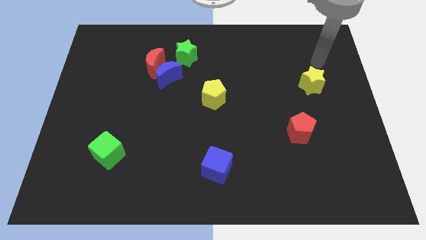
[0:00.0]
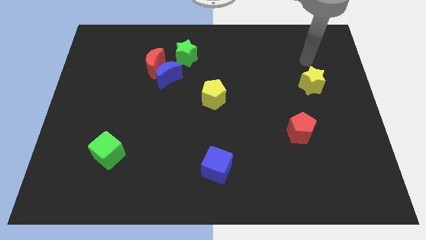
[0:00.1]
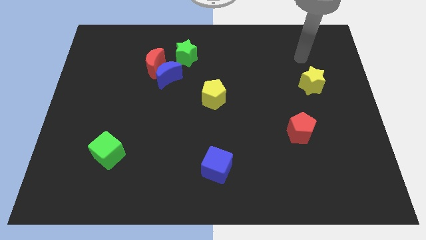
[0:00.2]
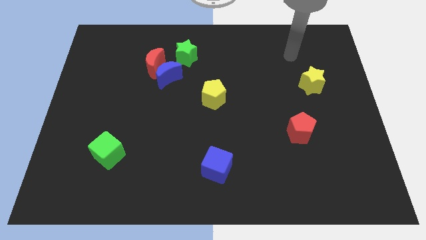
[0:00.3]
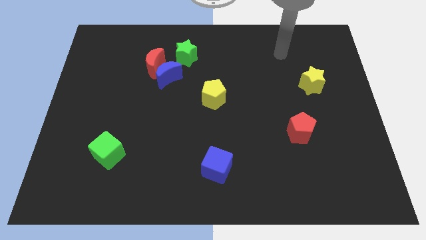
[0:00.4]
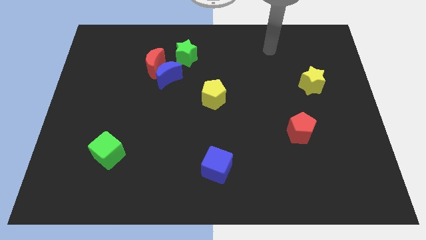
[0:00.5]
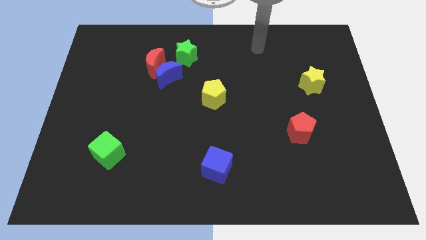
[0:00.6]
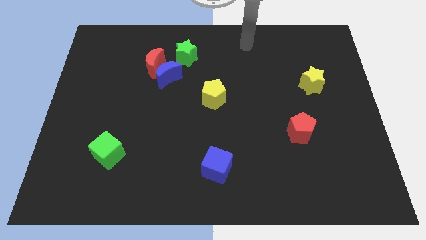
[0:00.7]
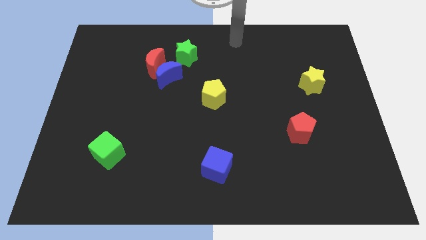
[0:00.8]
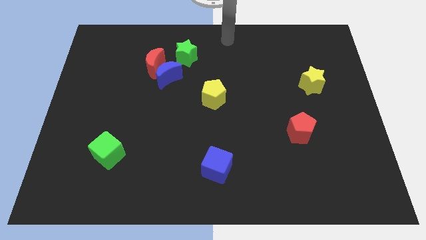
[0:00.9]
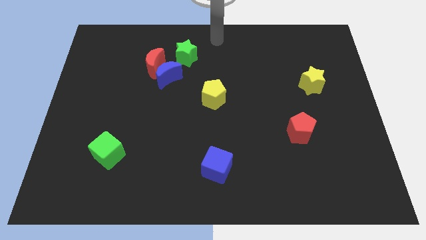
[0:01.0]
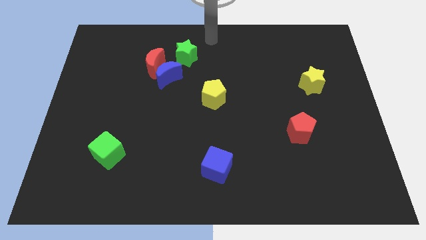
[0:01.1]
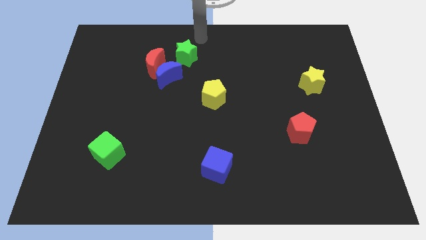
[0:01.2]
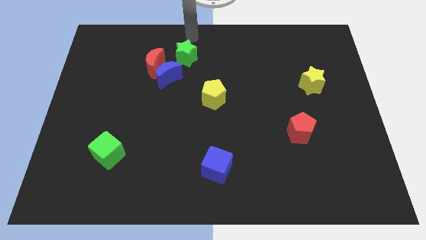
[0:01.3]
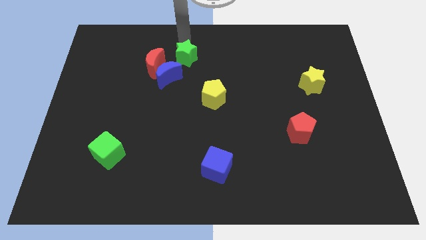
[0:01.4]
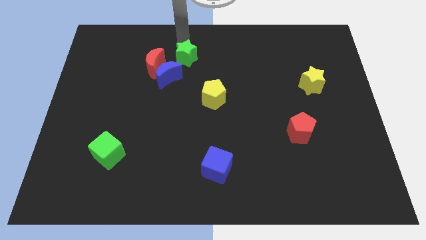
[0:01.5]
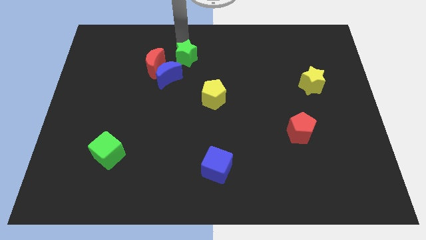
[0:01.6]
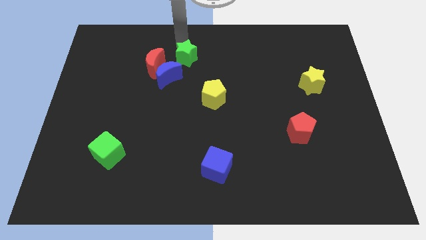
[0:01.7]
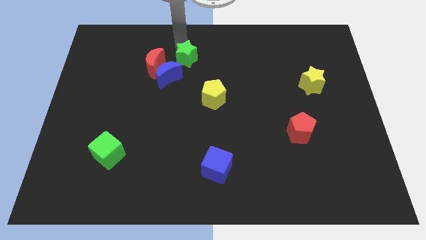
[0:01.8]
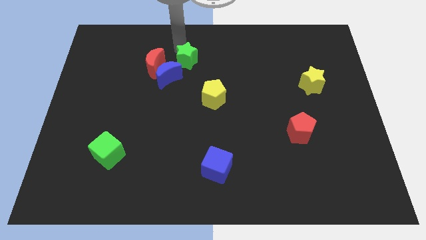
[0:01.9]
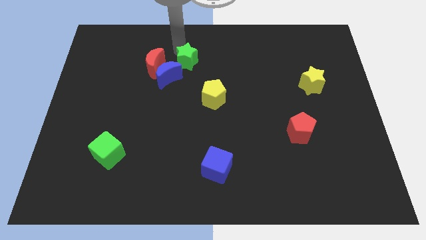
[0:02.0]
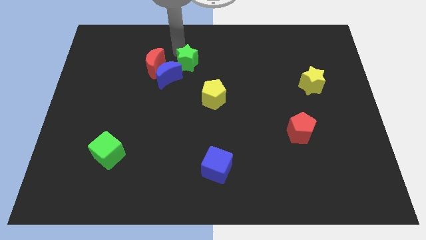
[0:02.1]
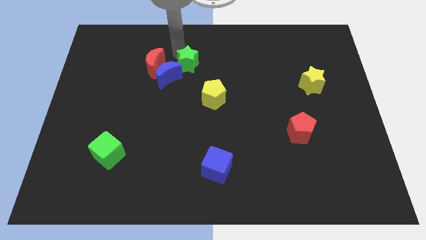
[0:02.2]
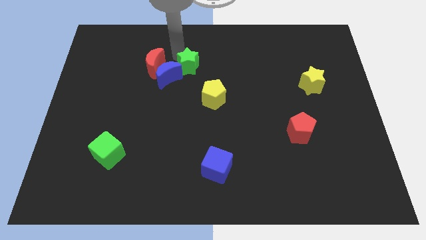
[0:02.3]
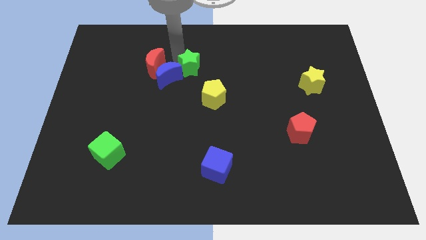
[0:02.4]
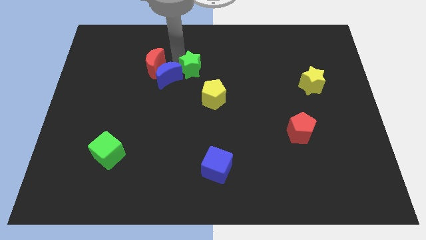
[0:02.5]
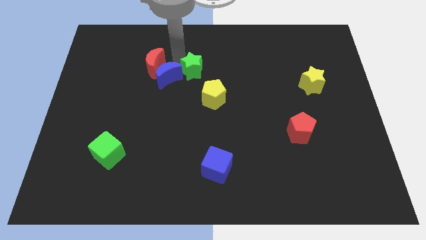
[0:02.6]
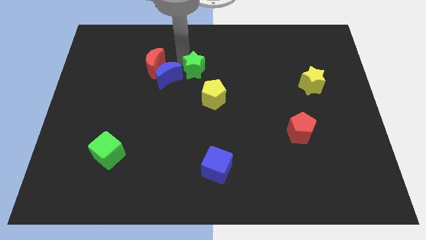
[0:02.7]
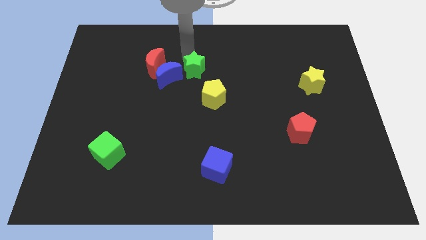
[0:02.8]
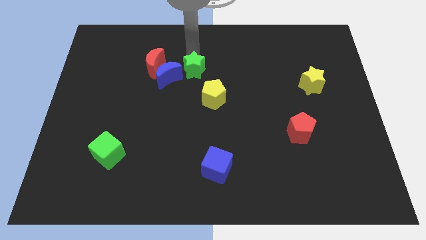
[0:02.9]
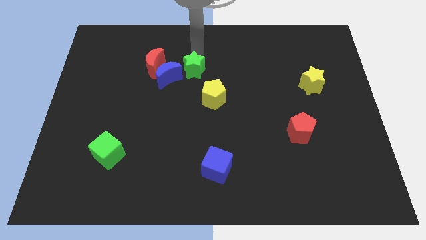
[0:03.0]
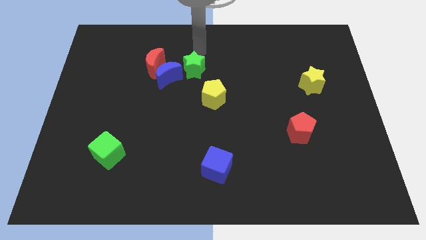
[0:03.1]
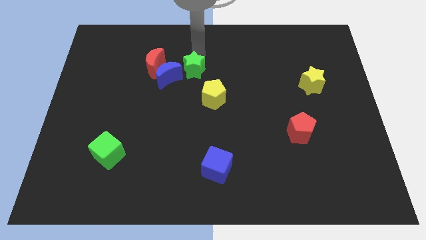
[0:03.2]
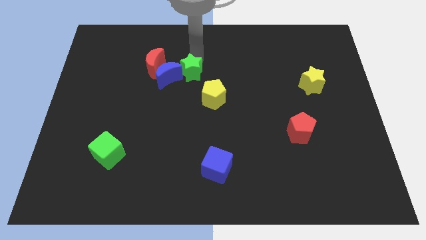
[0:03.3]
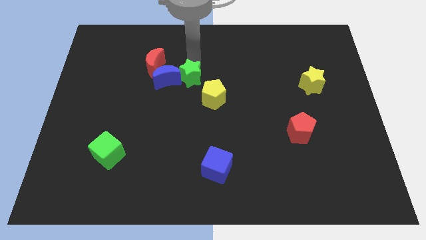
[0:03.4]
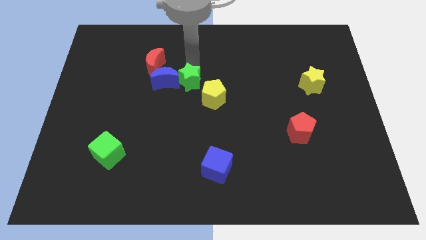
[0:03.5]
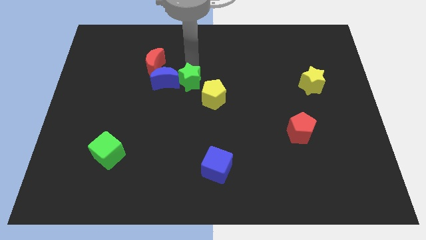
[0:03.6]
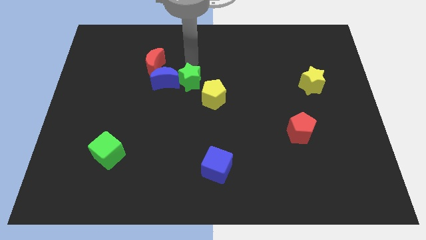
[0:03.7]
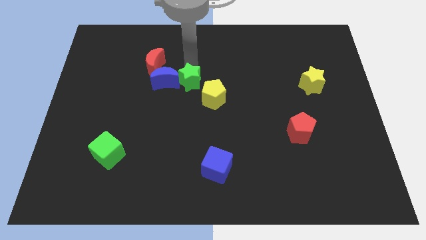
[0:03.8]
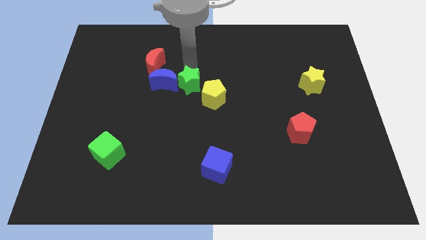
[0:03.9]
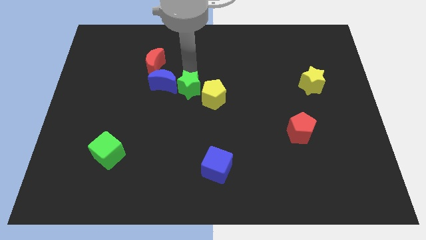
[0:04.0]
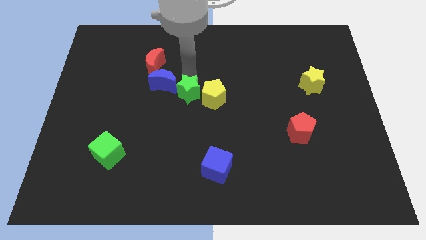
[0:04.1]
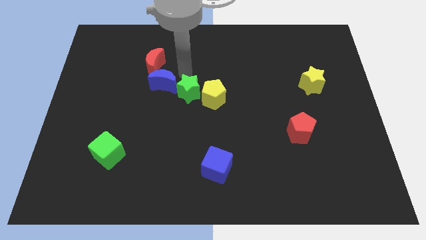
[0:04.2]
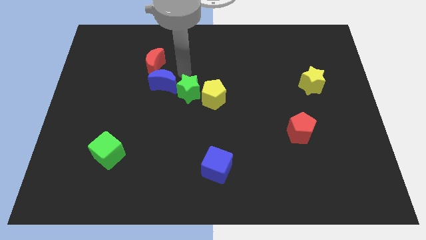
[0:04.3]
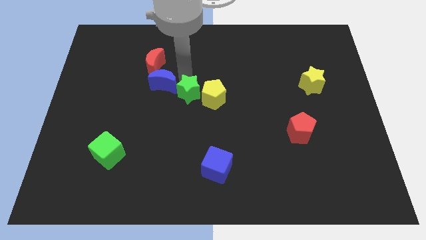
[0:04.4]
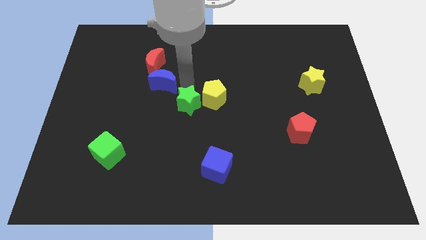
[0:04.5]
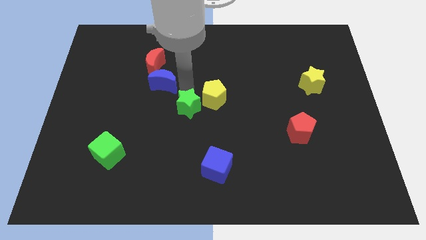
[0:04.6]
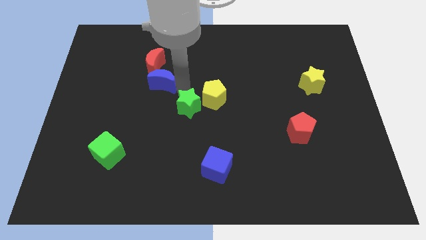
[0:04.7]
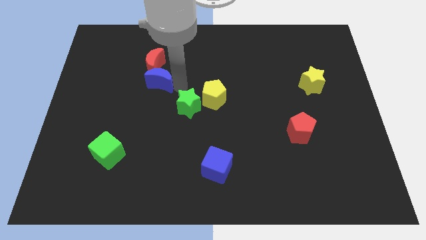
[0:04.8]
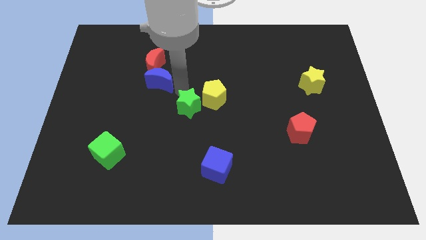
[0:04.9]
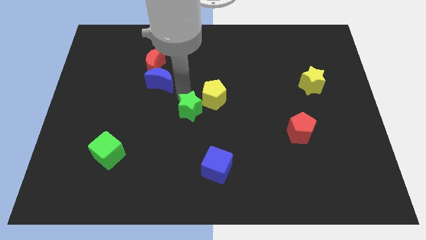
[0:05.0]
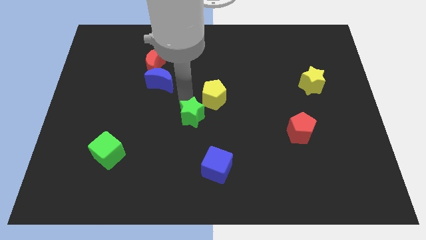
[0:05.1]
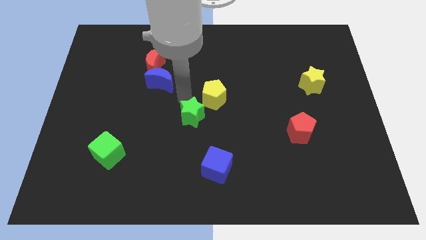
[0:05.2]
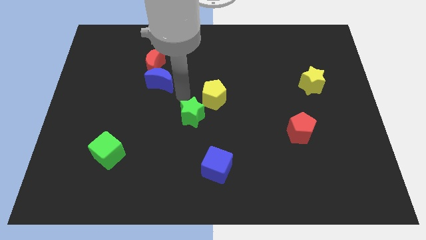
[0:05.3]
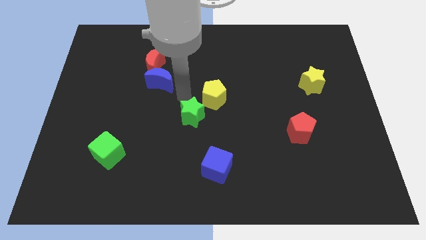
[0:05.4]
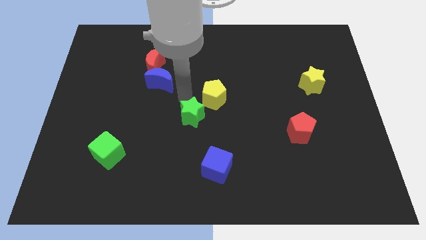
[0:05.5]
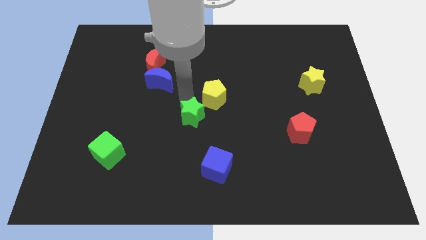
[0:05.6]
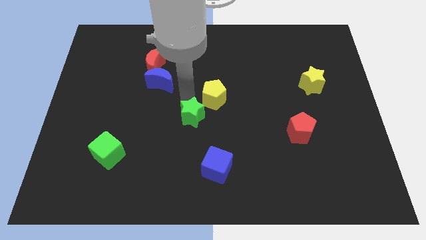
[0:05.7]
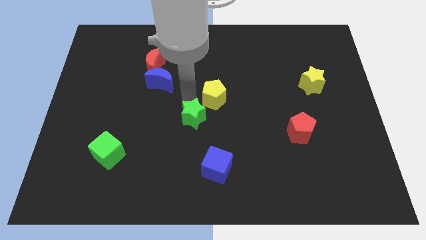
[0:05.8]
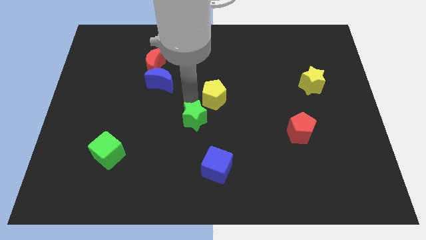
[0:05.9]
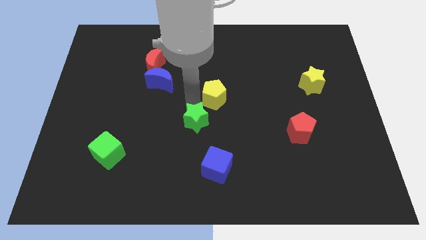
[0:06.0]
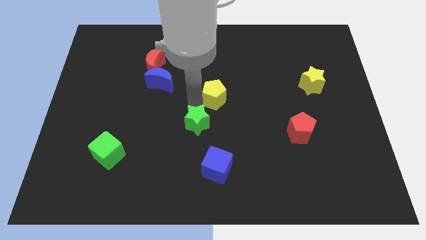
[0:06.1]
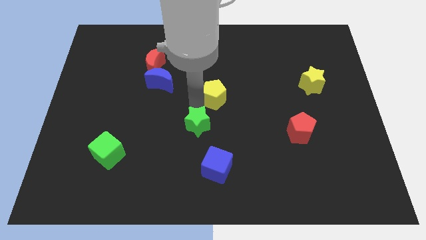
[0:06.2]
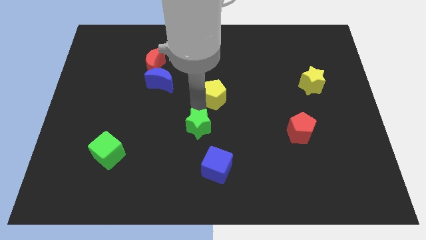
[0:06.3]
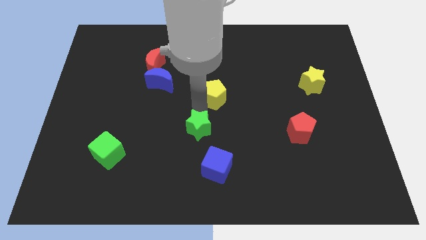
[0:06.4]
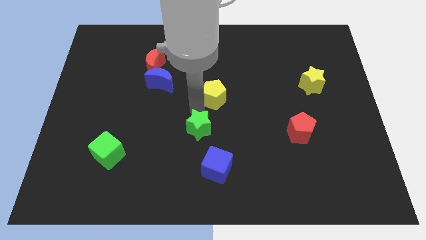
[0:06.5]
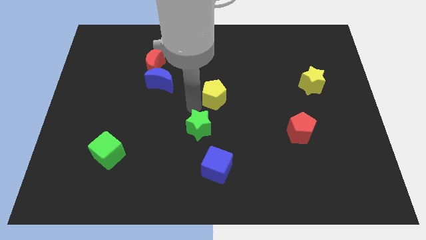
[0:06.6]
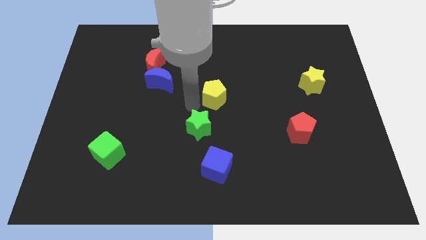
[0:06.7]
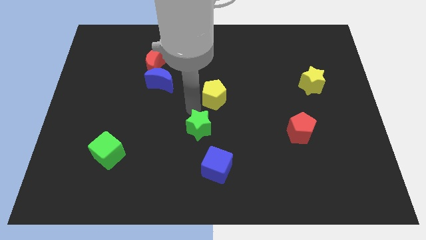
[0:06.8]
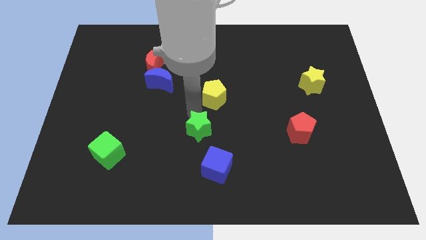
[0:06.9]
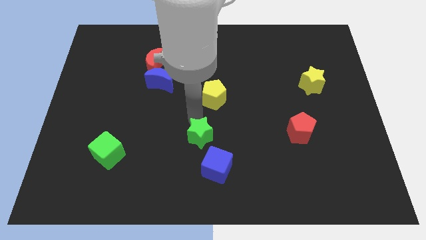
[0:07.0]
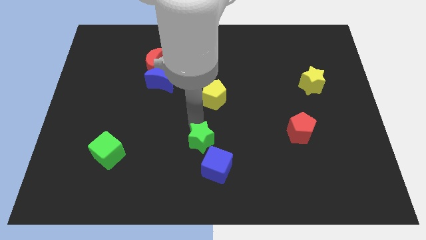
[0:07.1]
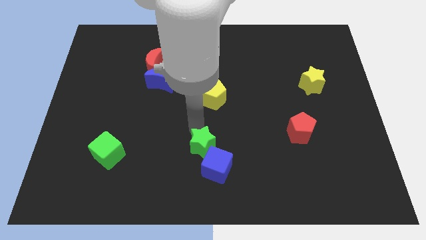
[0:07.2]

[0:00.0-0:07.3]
slide the green star next to the blue cube
